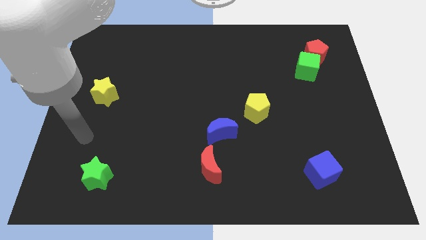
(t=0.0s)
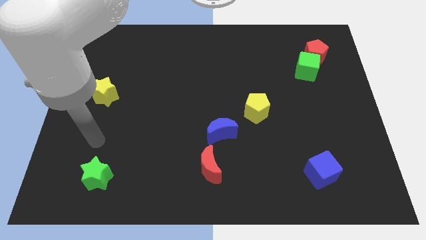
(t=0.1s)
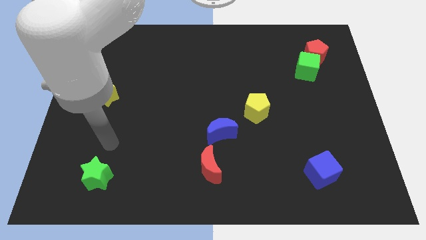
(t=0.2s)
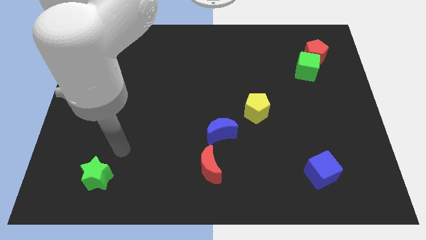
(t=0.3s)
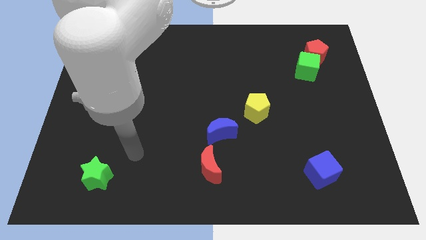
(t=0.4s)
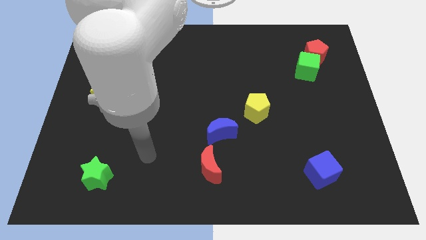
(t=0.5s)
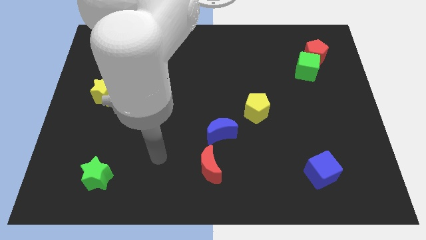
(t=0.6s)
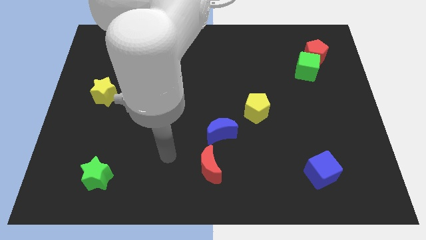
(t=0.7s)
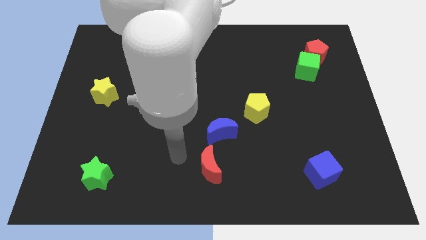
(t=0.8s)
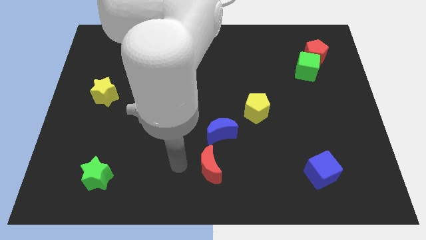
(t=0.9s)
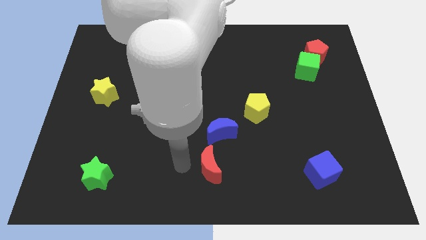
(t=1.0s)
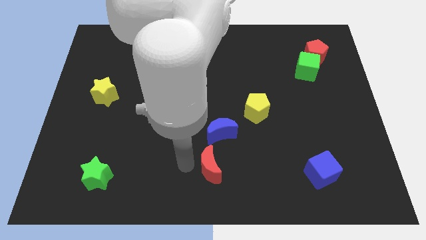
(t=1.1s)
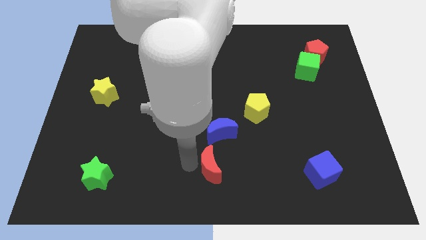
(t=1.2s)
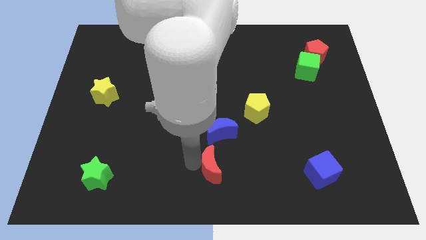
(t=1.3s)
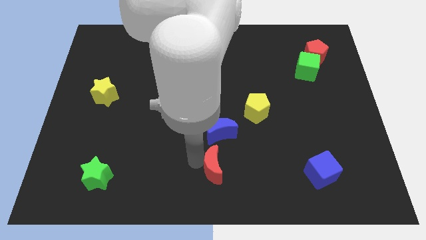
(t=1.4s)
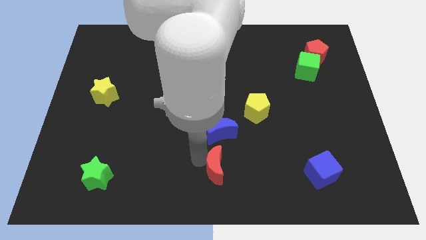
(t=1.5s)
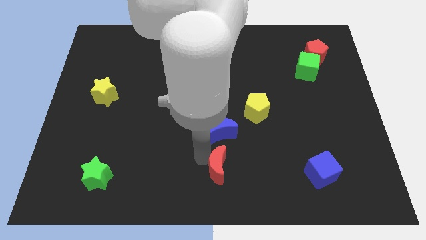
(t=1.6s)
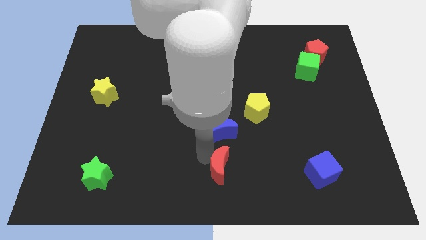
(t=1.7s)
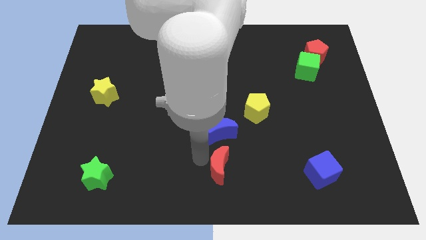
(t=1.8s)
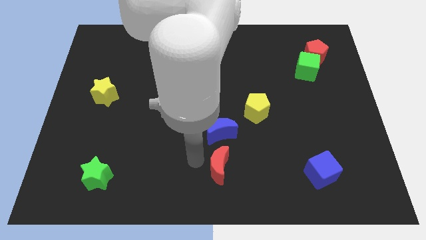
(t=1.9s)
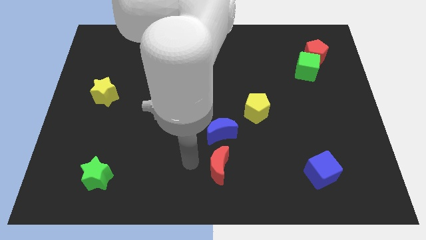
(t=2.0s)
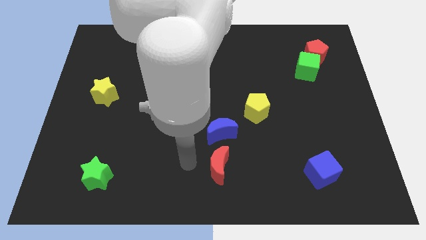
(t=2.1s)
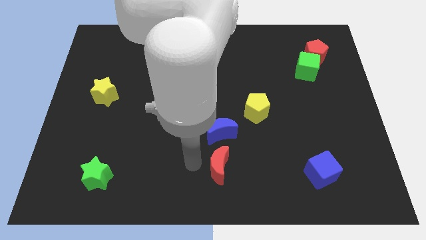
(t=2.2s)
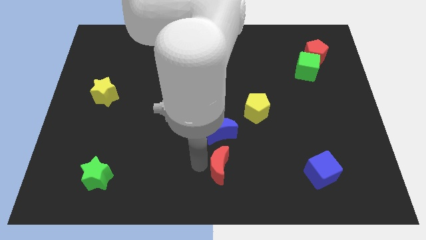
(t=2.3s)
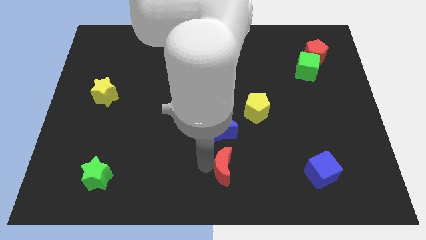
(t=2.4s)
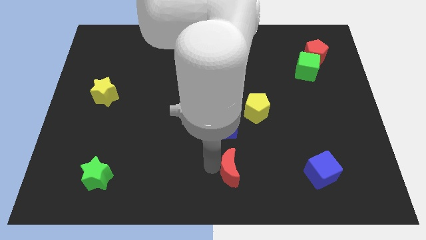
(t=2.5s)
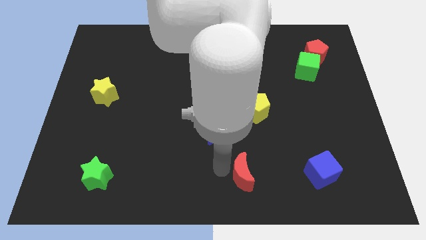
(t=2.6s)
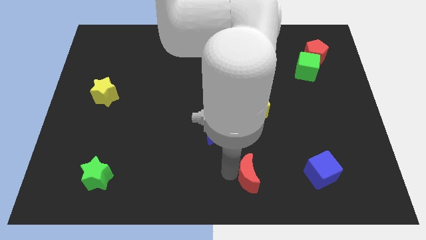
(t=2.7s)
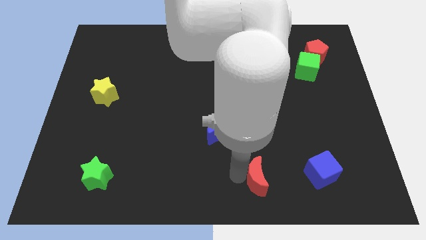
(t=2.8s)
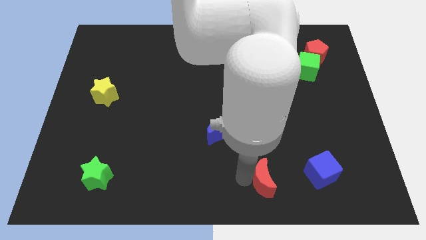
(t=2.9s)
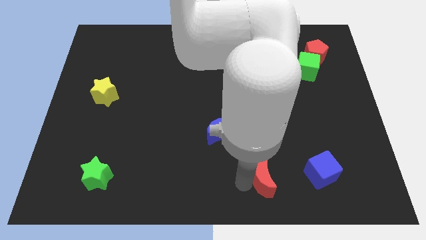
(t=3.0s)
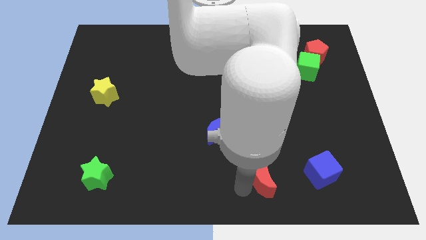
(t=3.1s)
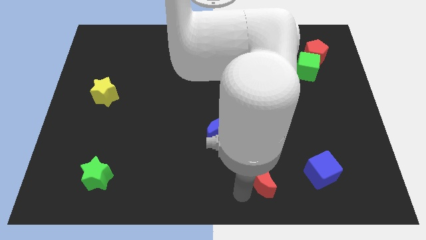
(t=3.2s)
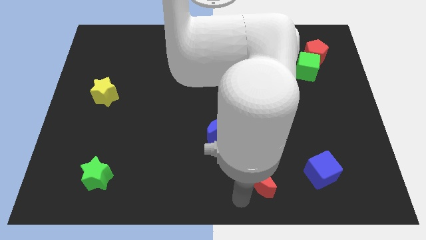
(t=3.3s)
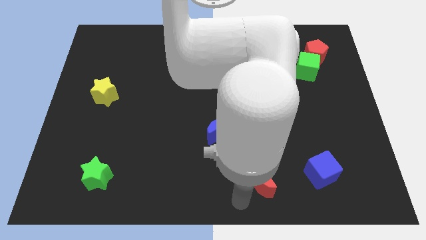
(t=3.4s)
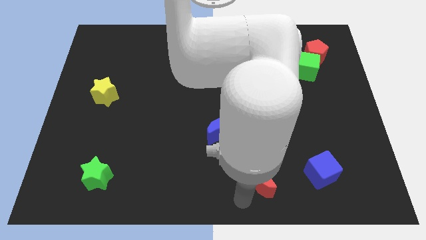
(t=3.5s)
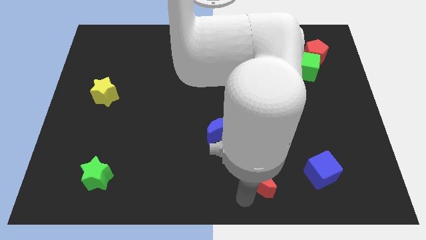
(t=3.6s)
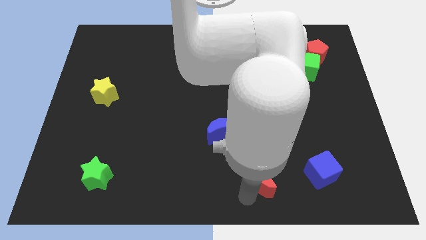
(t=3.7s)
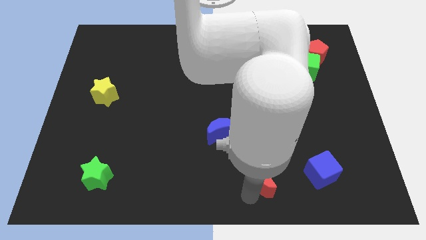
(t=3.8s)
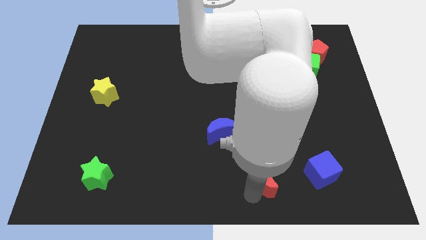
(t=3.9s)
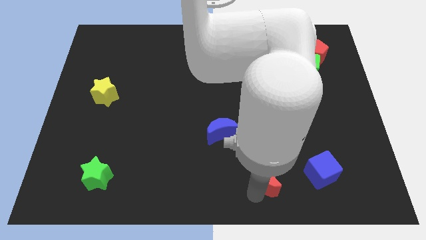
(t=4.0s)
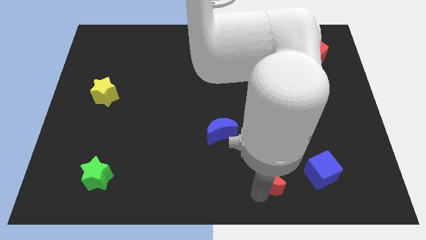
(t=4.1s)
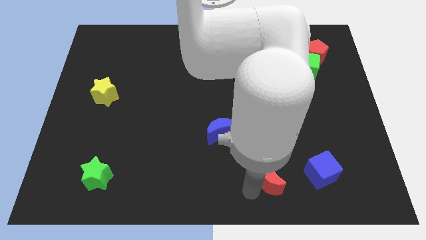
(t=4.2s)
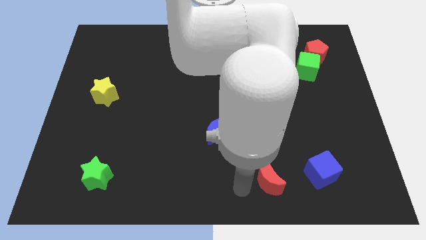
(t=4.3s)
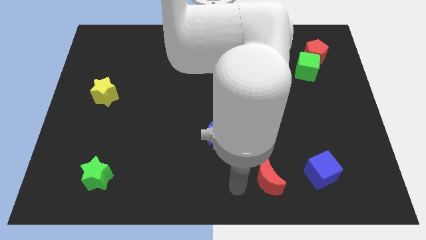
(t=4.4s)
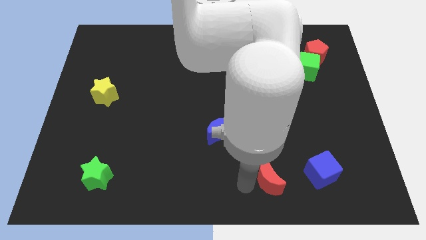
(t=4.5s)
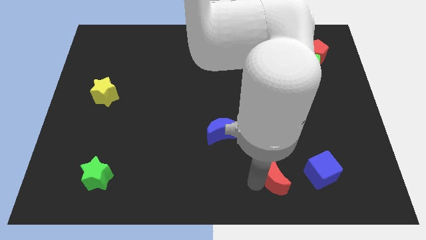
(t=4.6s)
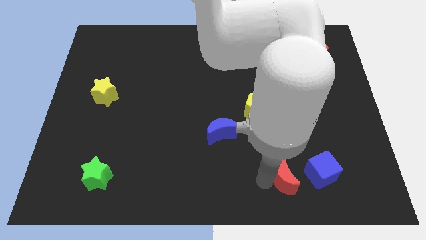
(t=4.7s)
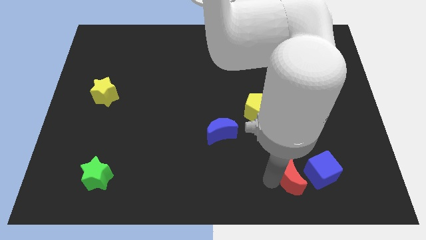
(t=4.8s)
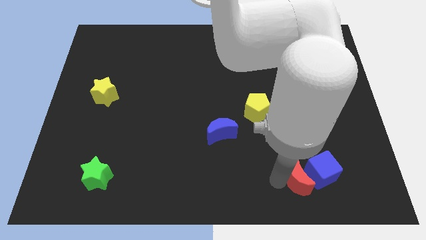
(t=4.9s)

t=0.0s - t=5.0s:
move the red moon towards the blue cube

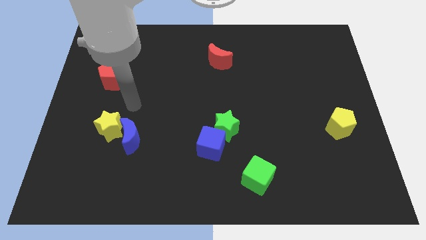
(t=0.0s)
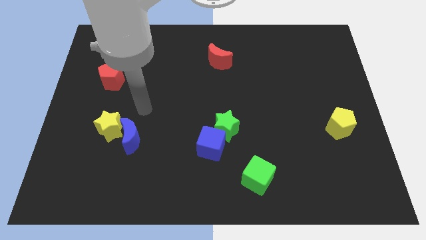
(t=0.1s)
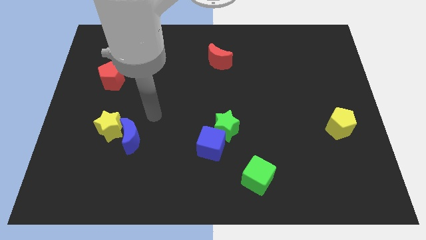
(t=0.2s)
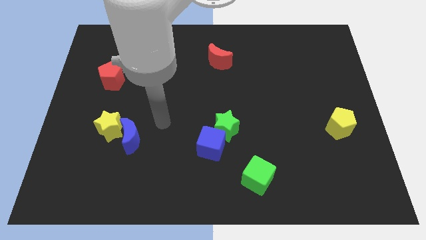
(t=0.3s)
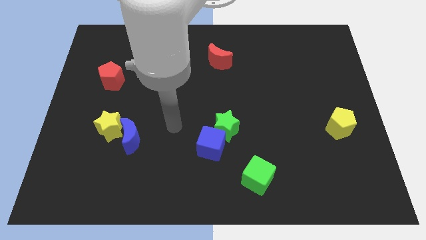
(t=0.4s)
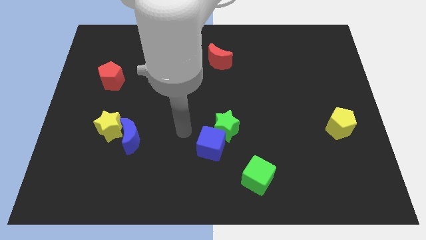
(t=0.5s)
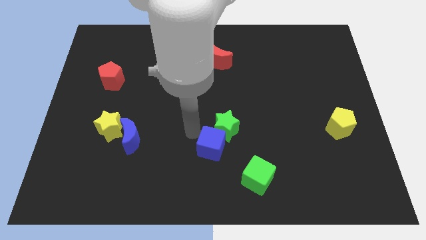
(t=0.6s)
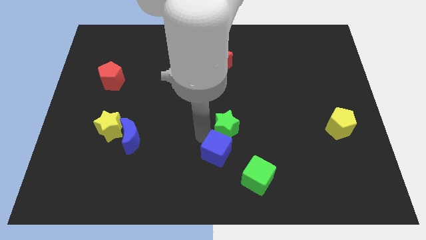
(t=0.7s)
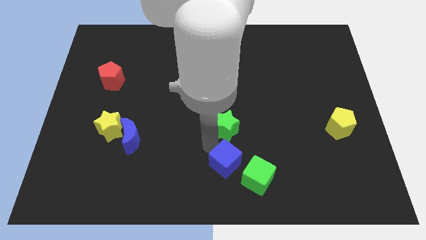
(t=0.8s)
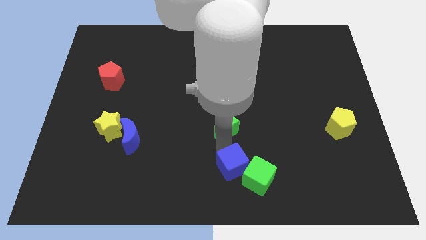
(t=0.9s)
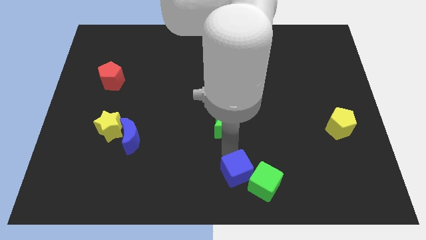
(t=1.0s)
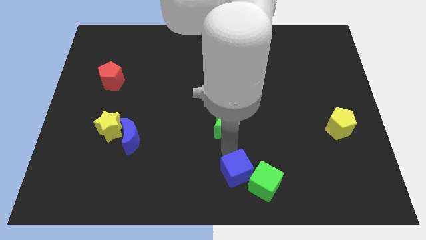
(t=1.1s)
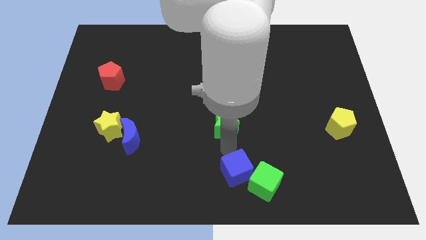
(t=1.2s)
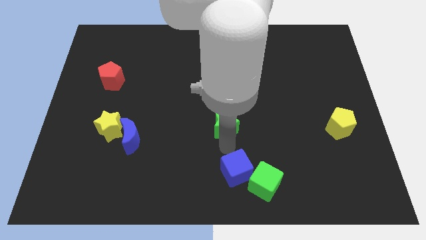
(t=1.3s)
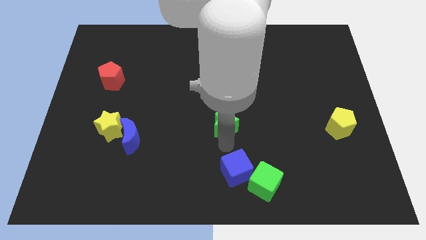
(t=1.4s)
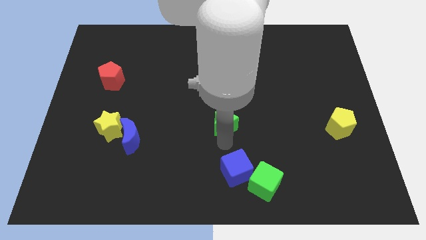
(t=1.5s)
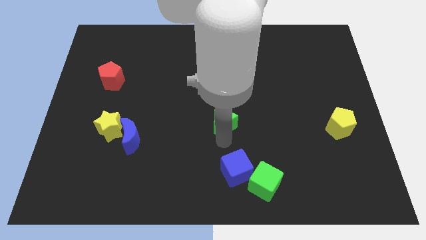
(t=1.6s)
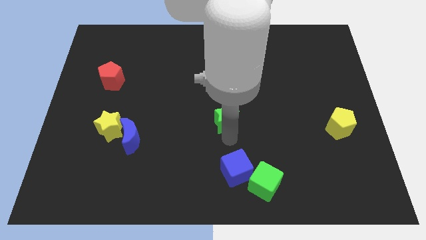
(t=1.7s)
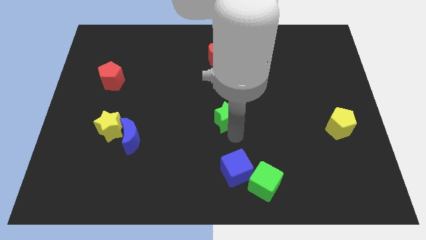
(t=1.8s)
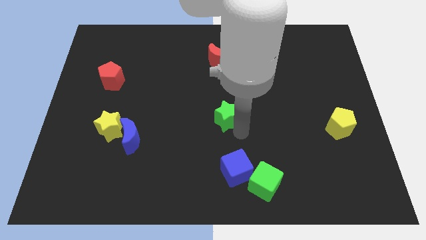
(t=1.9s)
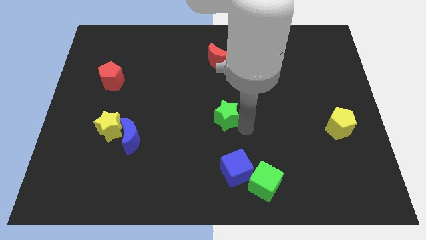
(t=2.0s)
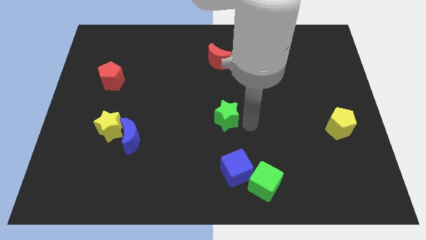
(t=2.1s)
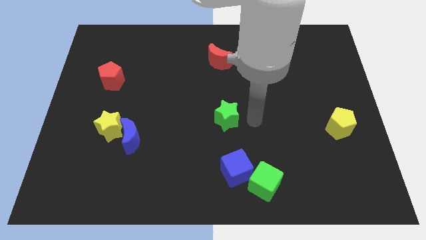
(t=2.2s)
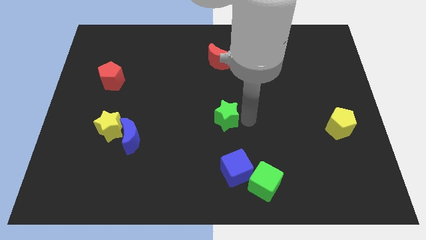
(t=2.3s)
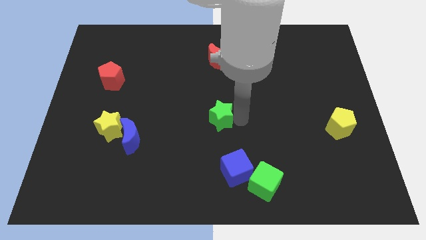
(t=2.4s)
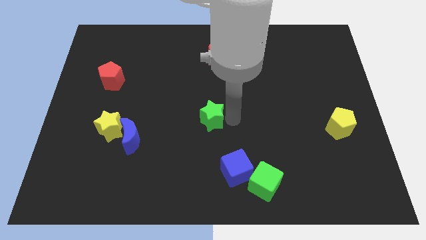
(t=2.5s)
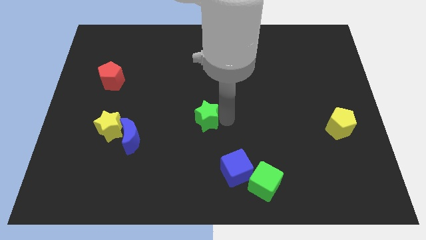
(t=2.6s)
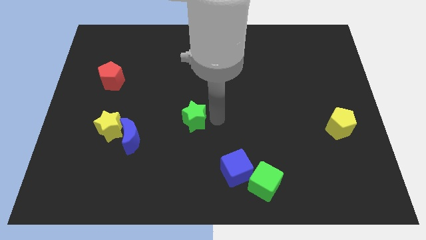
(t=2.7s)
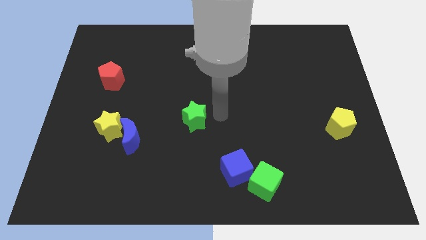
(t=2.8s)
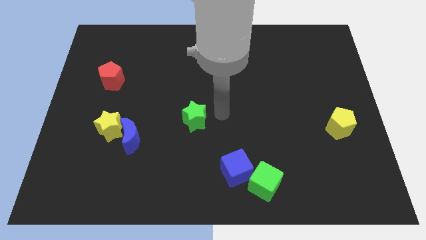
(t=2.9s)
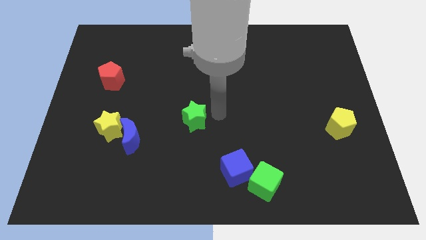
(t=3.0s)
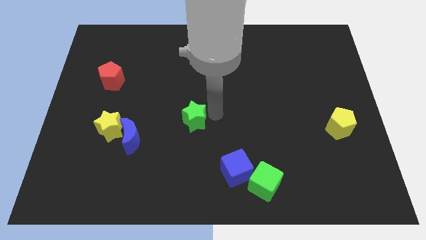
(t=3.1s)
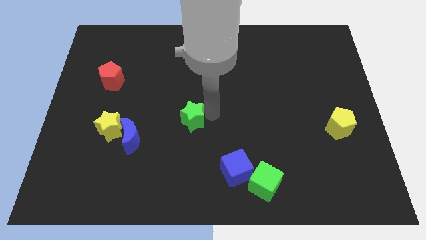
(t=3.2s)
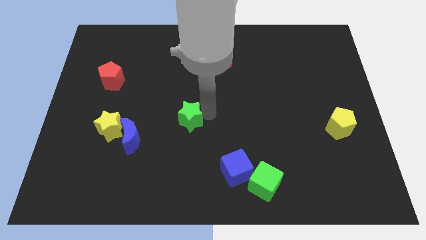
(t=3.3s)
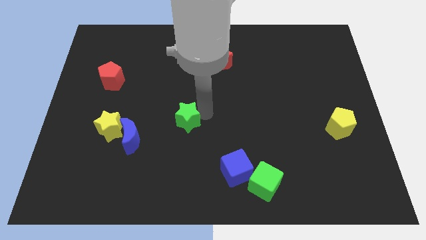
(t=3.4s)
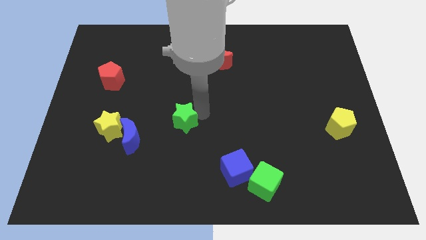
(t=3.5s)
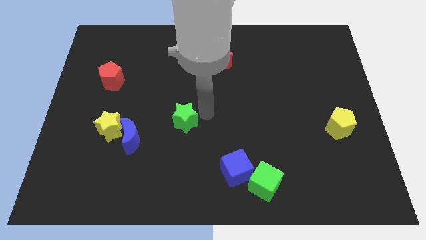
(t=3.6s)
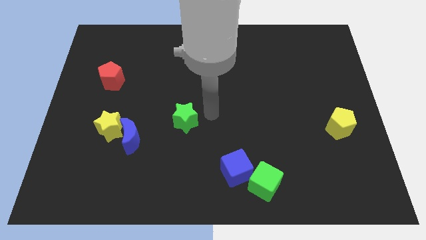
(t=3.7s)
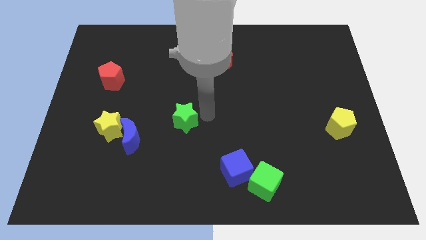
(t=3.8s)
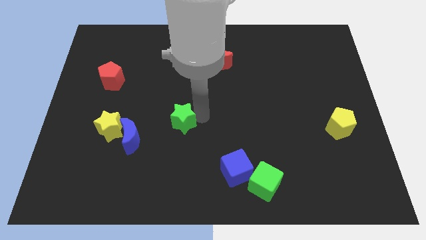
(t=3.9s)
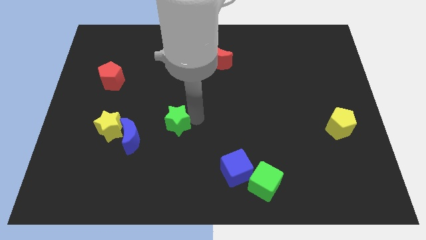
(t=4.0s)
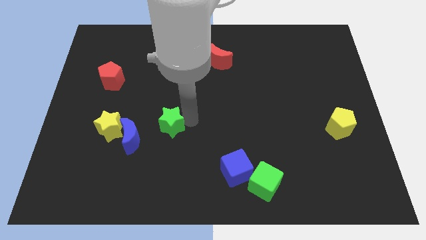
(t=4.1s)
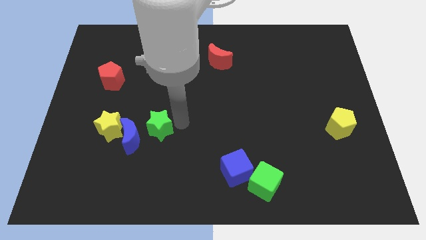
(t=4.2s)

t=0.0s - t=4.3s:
push the green star to the blue moon
